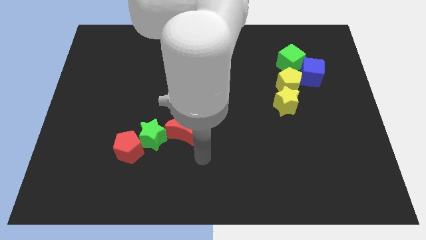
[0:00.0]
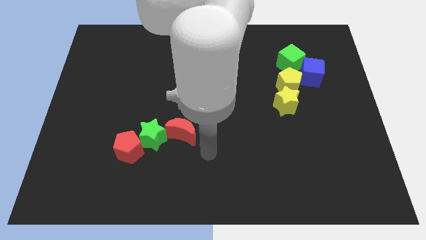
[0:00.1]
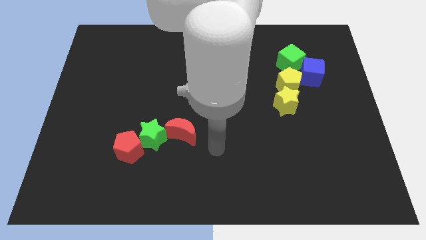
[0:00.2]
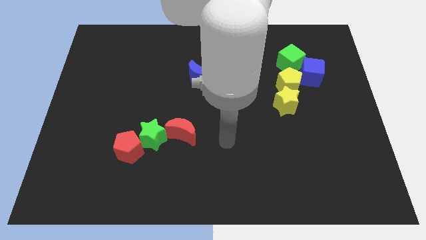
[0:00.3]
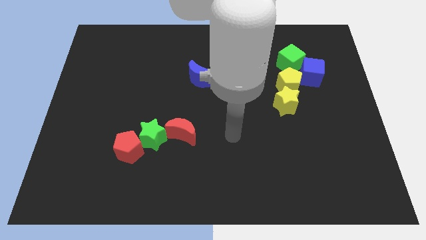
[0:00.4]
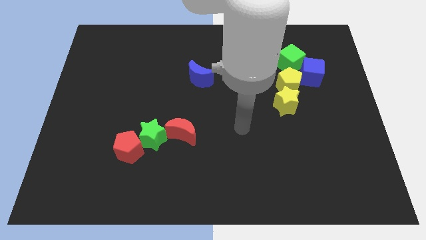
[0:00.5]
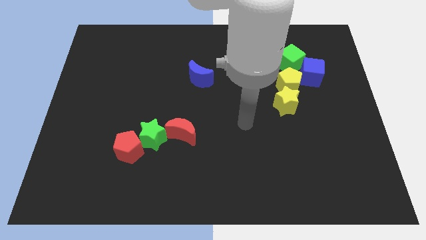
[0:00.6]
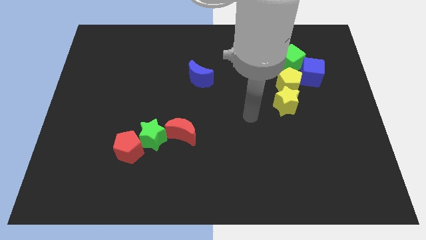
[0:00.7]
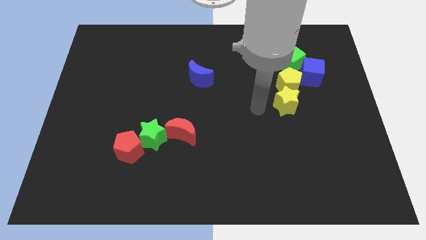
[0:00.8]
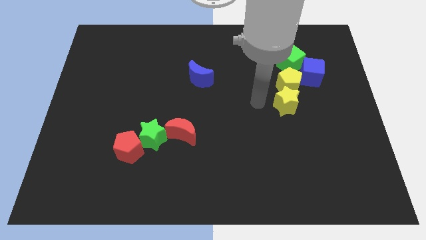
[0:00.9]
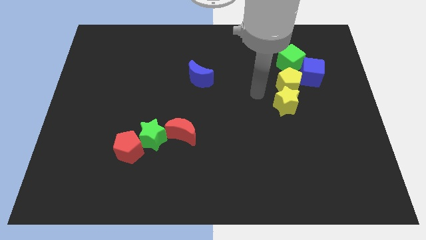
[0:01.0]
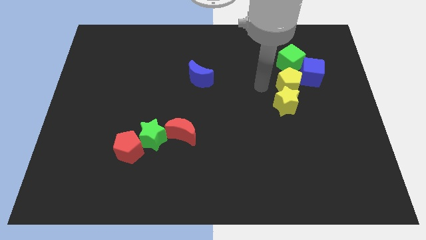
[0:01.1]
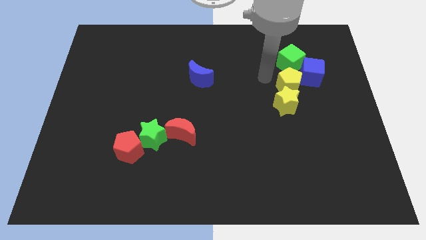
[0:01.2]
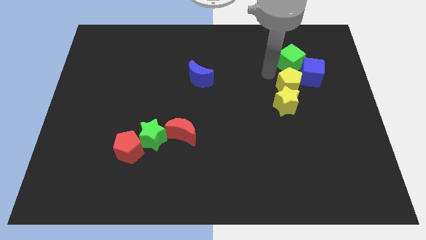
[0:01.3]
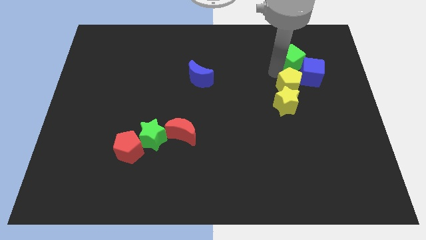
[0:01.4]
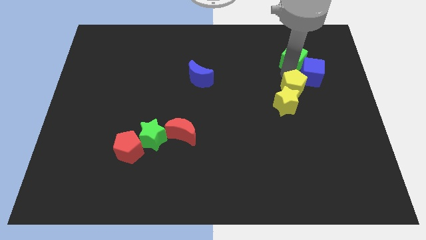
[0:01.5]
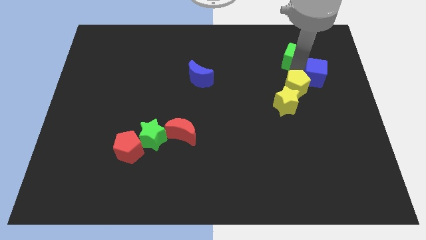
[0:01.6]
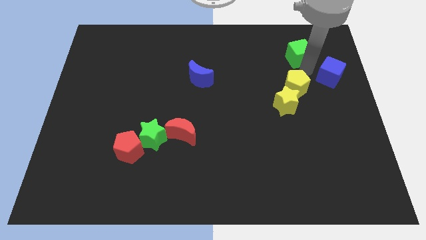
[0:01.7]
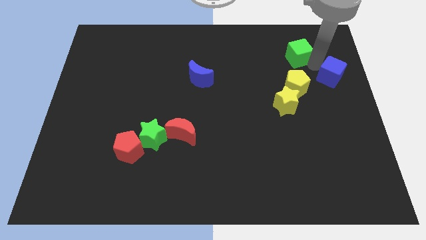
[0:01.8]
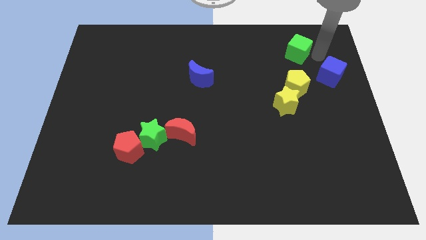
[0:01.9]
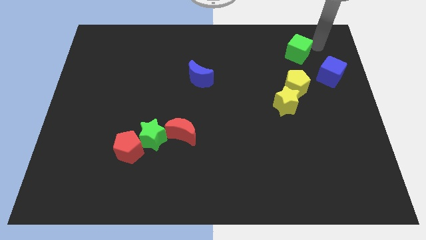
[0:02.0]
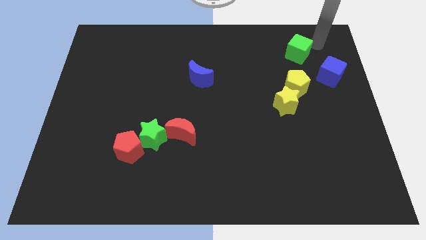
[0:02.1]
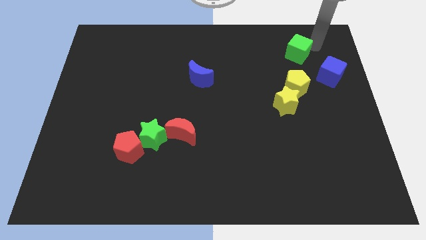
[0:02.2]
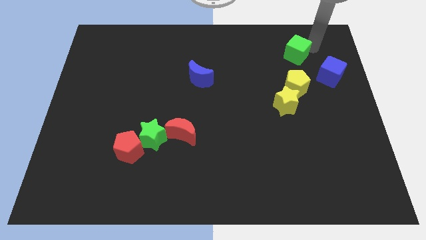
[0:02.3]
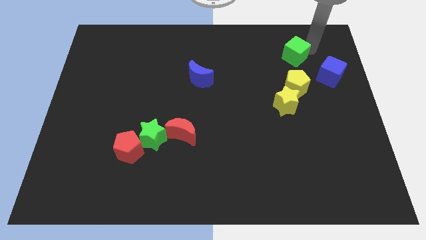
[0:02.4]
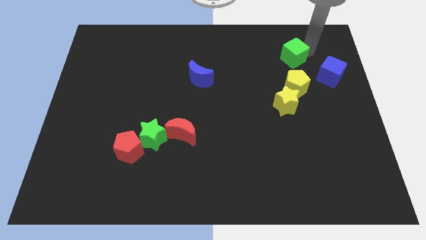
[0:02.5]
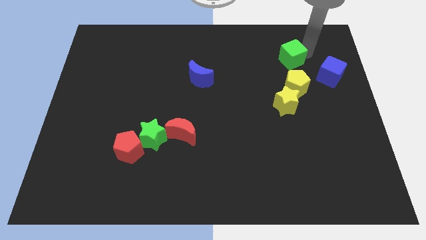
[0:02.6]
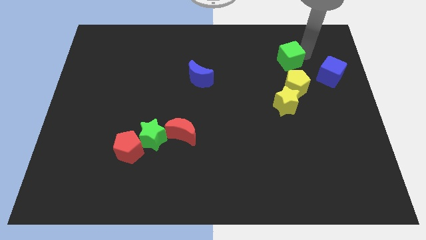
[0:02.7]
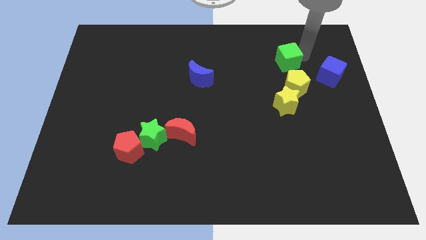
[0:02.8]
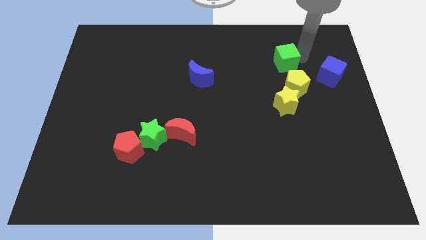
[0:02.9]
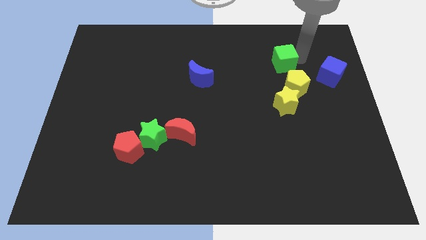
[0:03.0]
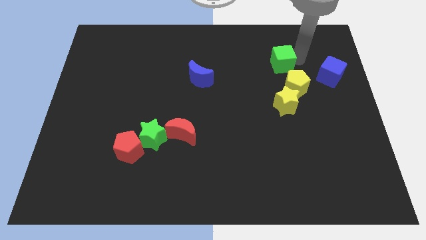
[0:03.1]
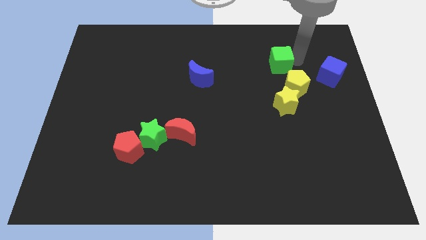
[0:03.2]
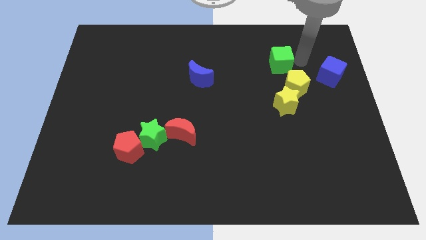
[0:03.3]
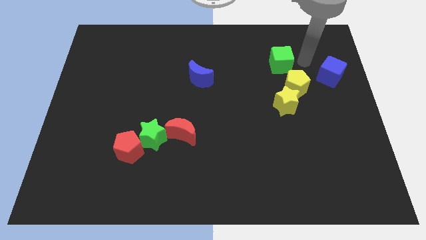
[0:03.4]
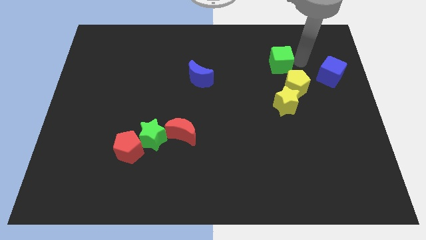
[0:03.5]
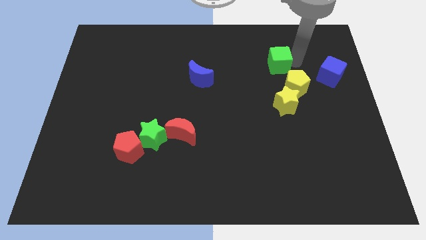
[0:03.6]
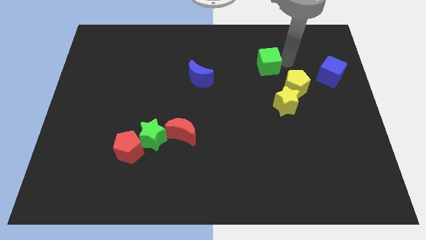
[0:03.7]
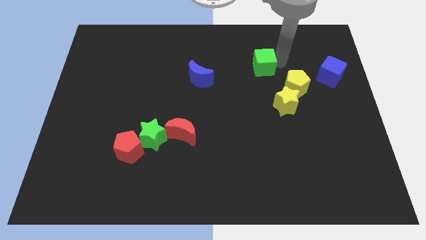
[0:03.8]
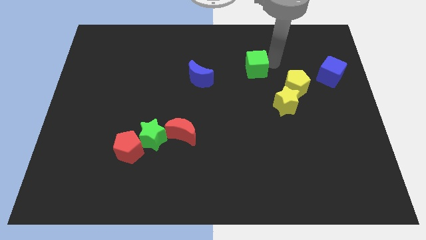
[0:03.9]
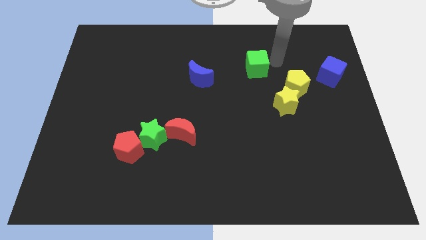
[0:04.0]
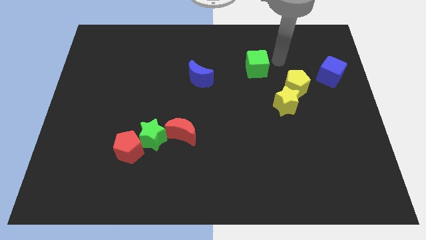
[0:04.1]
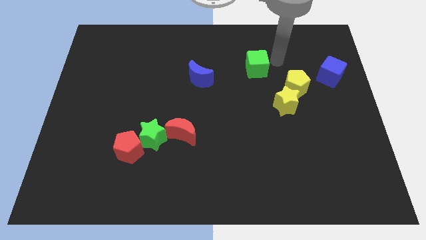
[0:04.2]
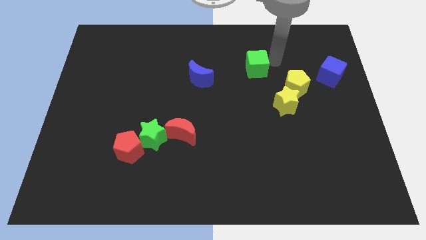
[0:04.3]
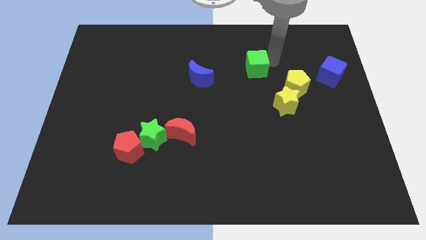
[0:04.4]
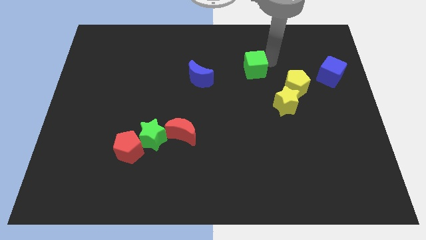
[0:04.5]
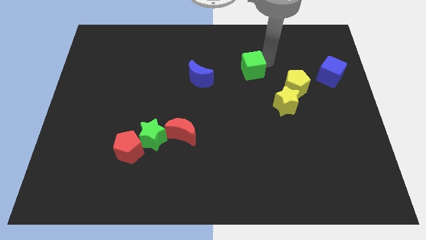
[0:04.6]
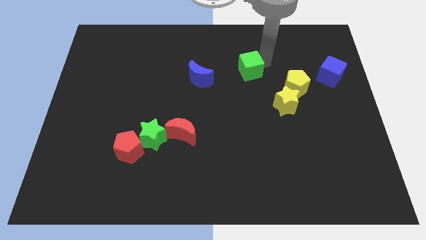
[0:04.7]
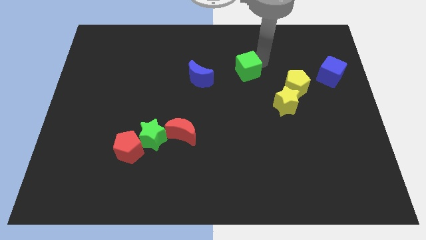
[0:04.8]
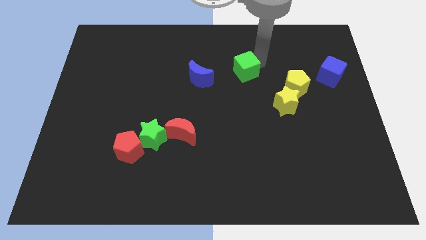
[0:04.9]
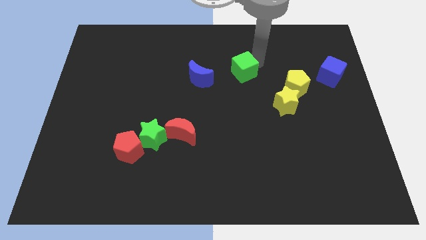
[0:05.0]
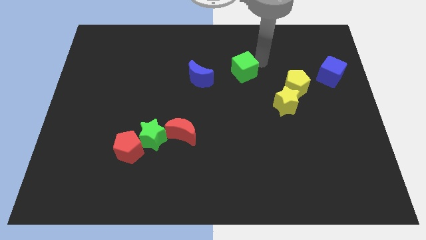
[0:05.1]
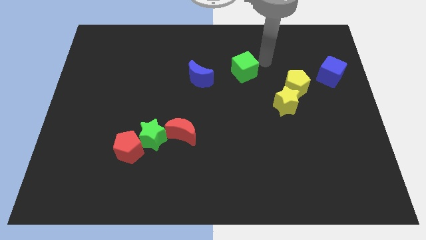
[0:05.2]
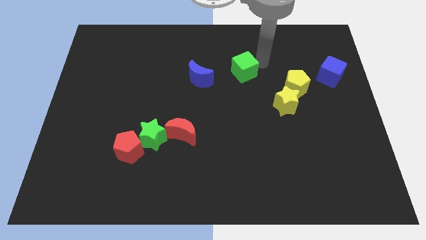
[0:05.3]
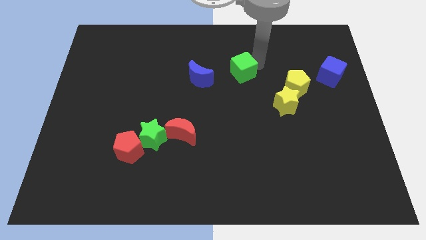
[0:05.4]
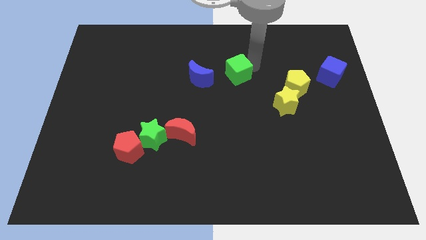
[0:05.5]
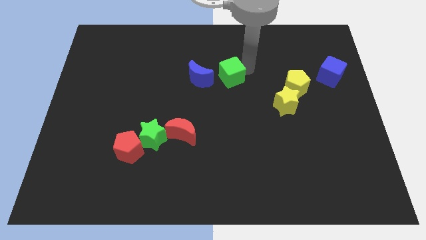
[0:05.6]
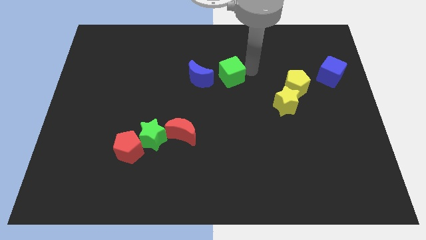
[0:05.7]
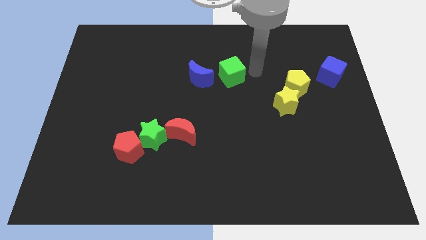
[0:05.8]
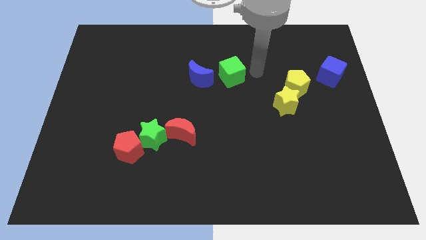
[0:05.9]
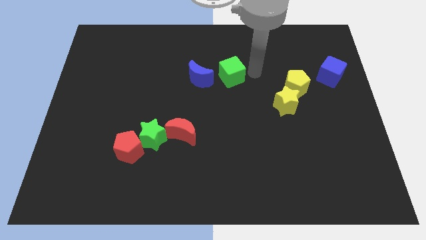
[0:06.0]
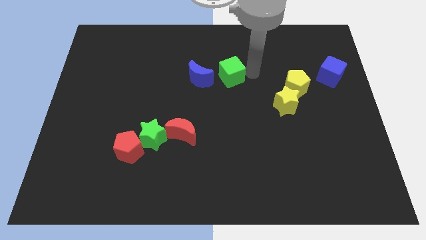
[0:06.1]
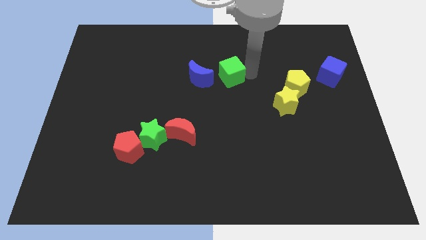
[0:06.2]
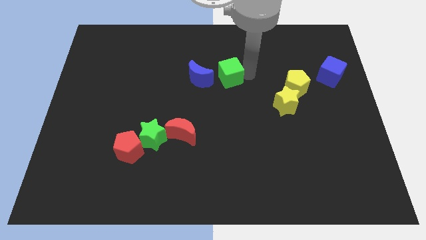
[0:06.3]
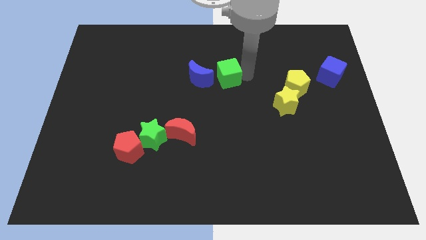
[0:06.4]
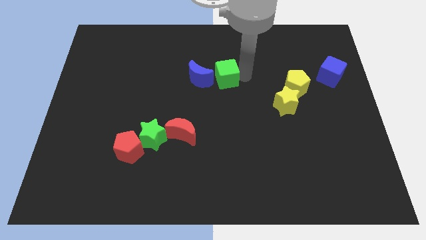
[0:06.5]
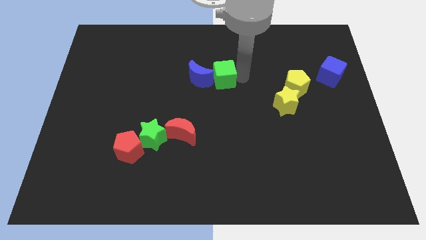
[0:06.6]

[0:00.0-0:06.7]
move the green cube next to the blue moon

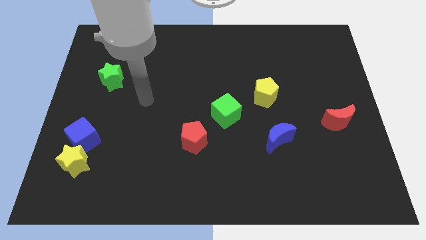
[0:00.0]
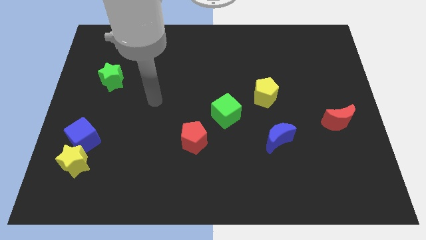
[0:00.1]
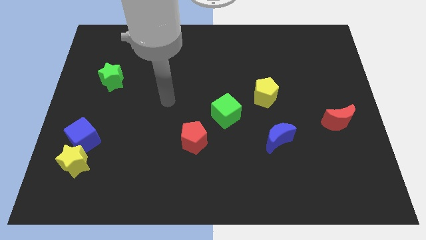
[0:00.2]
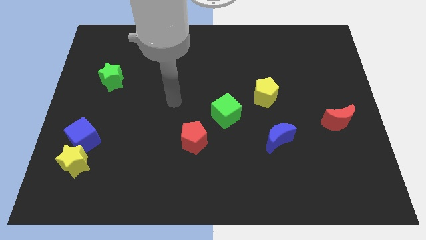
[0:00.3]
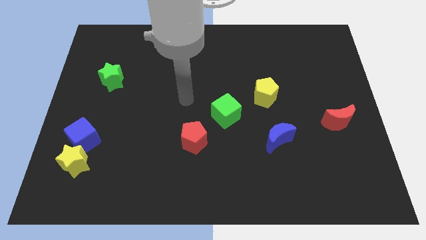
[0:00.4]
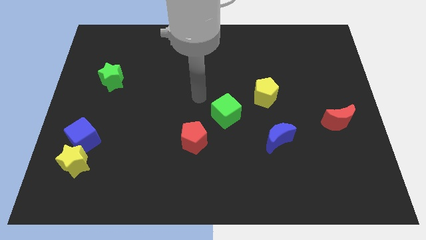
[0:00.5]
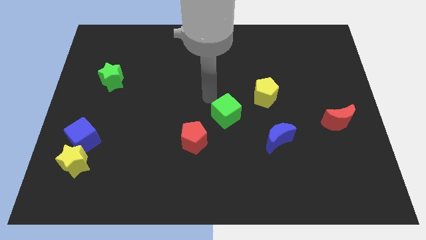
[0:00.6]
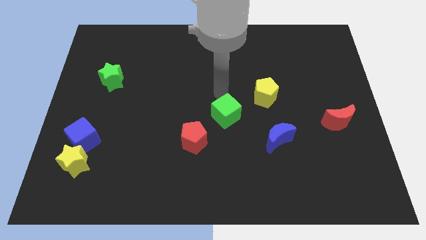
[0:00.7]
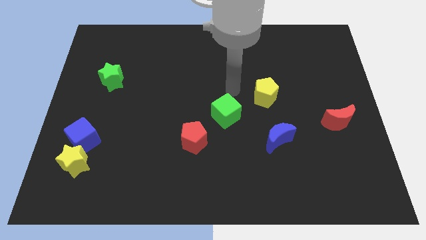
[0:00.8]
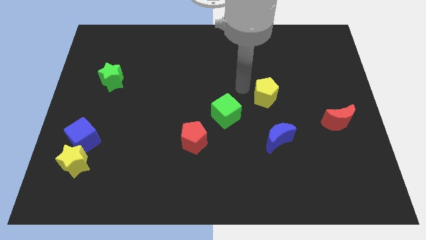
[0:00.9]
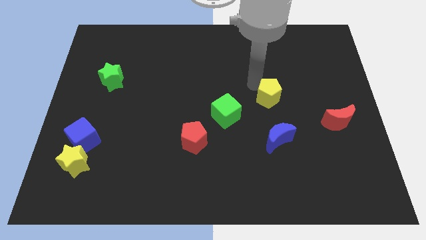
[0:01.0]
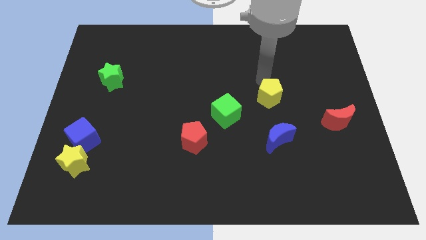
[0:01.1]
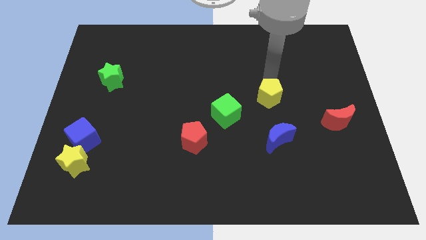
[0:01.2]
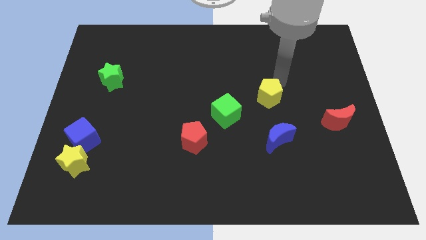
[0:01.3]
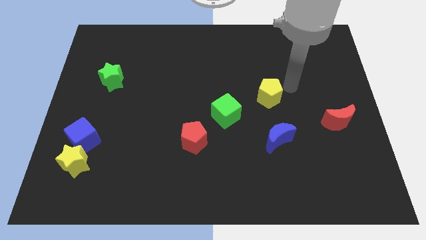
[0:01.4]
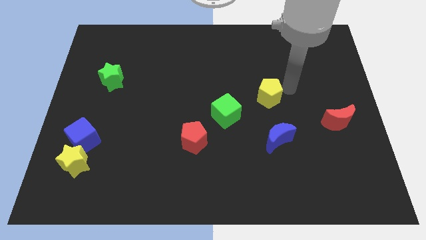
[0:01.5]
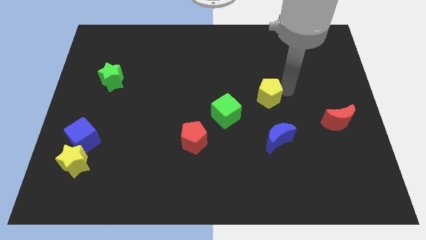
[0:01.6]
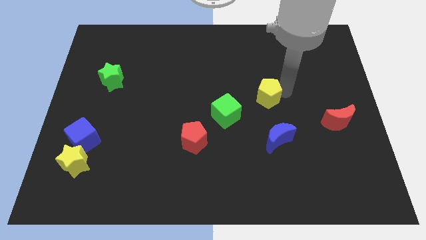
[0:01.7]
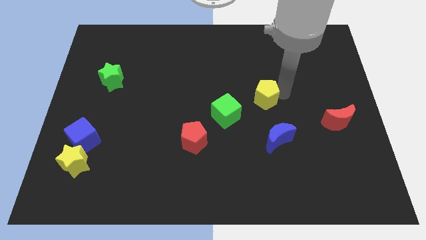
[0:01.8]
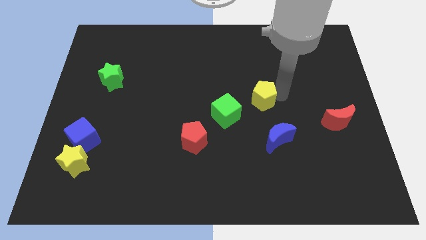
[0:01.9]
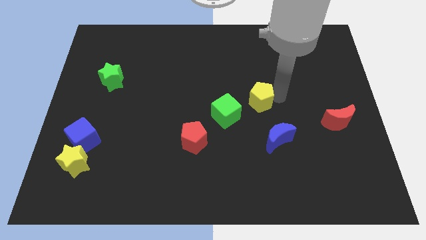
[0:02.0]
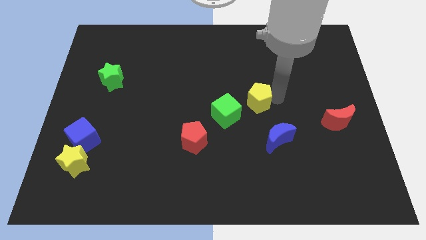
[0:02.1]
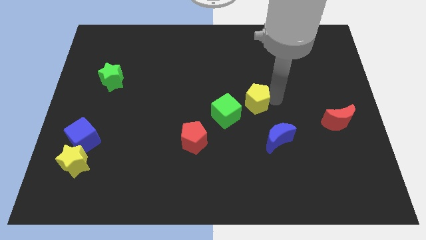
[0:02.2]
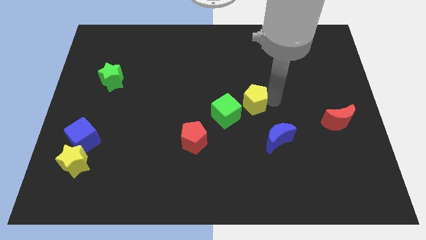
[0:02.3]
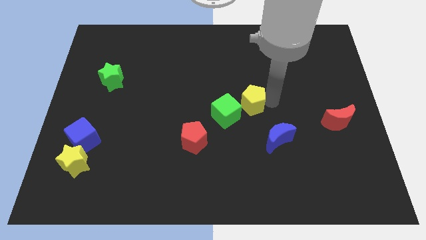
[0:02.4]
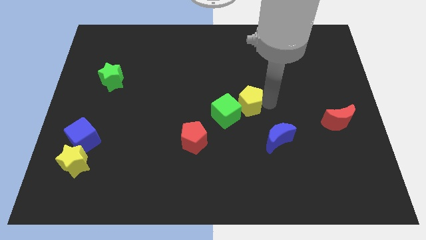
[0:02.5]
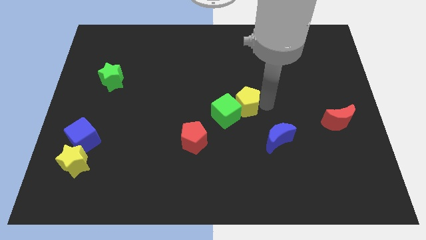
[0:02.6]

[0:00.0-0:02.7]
slide the yellow pentagon next to the green cube
